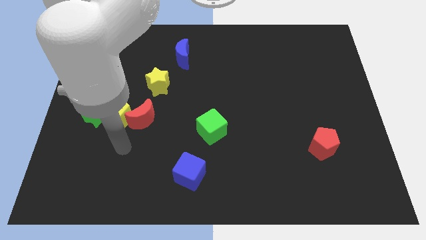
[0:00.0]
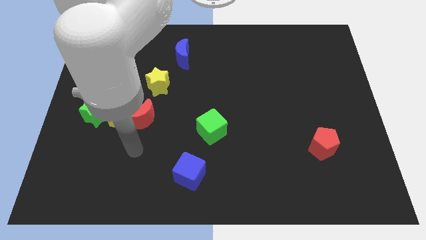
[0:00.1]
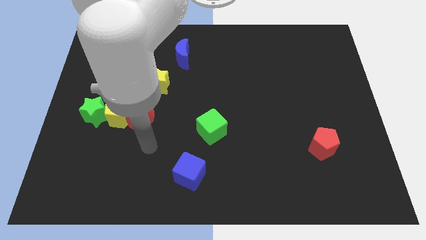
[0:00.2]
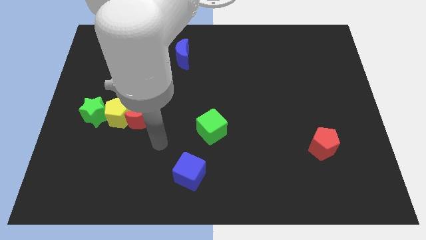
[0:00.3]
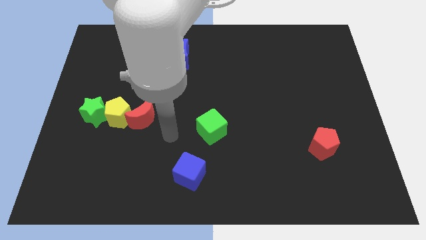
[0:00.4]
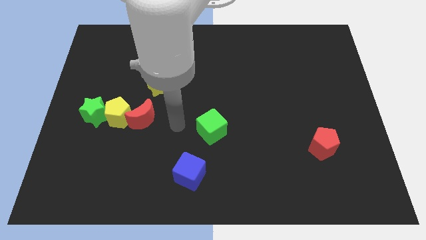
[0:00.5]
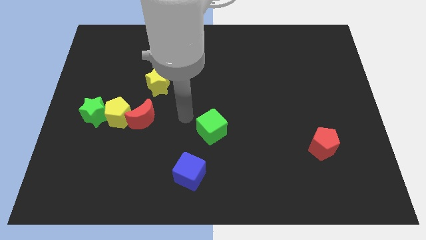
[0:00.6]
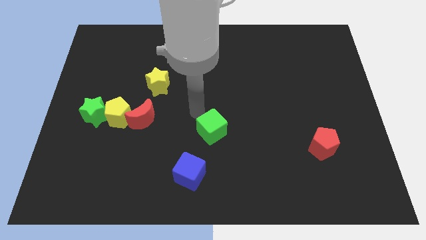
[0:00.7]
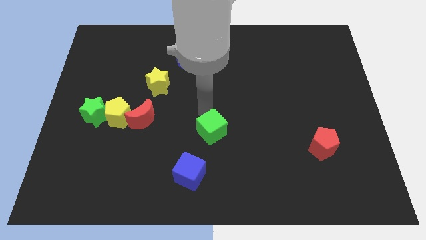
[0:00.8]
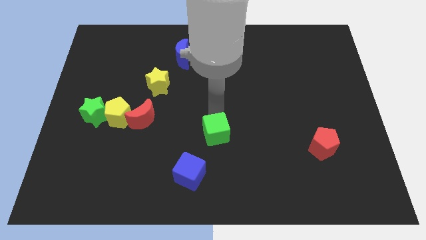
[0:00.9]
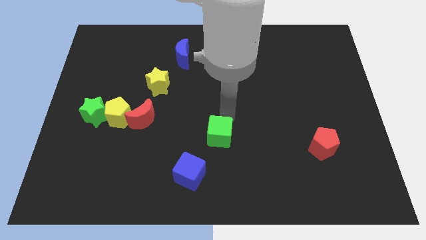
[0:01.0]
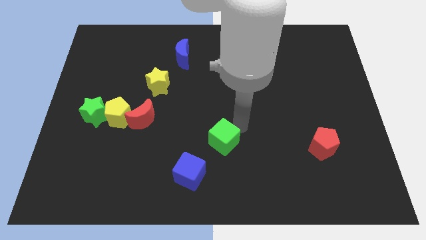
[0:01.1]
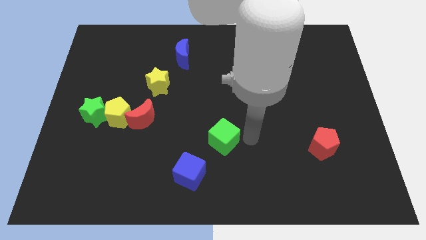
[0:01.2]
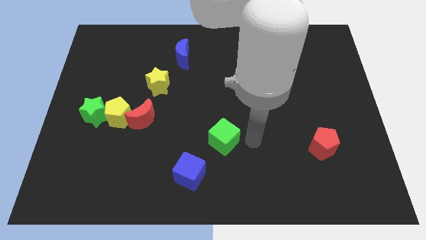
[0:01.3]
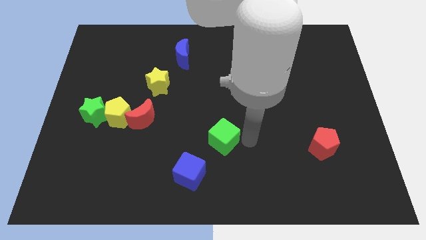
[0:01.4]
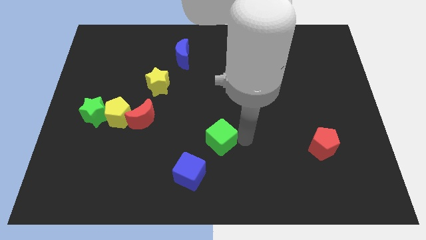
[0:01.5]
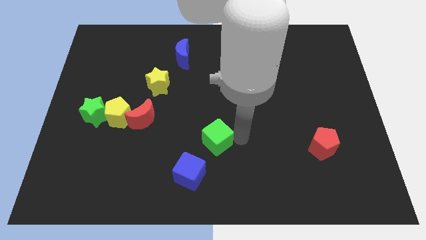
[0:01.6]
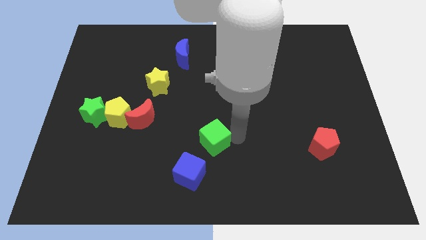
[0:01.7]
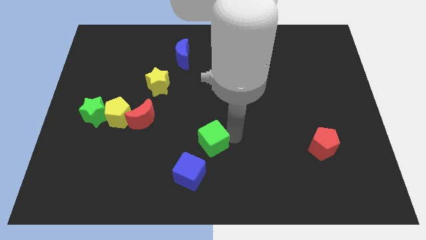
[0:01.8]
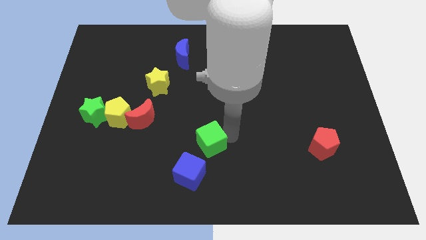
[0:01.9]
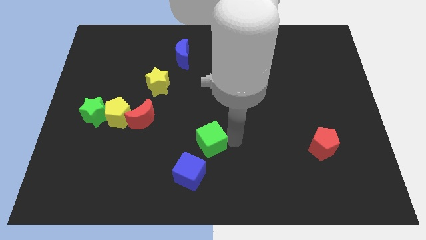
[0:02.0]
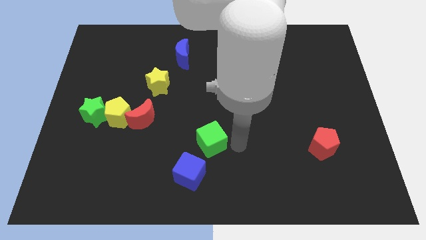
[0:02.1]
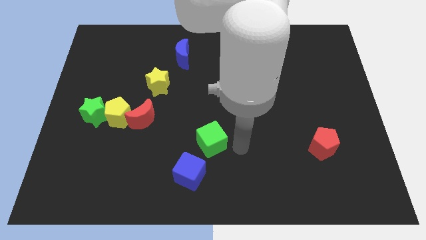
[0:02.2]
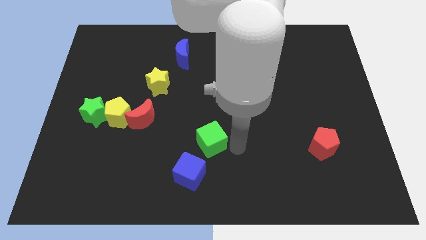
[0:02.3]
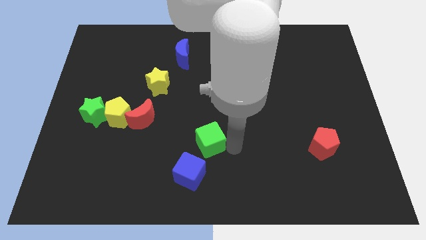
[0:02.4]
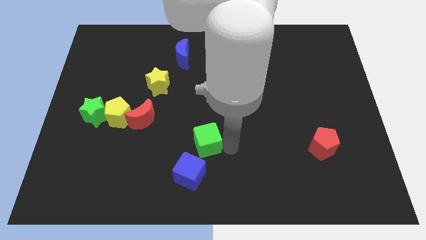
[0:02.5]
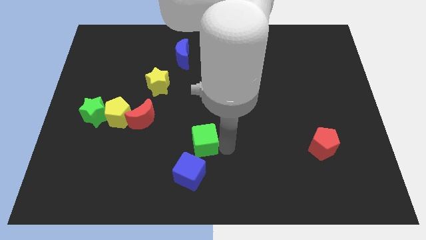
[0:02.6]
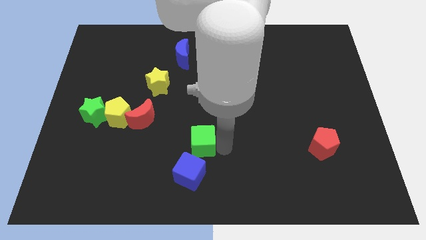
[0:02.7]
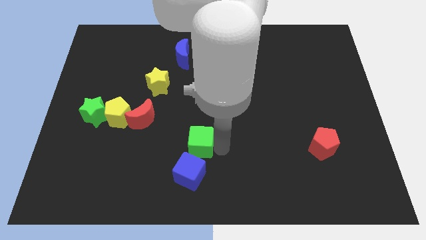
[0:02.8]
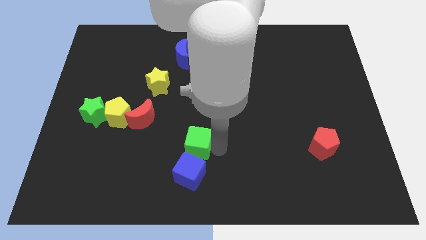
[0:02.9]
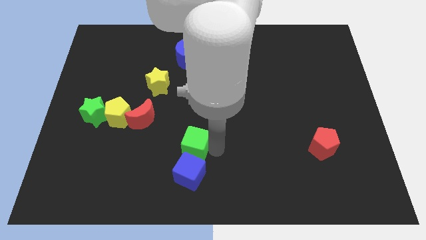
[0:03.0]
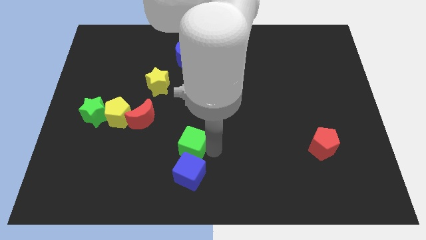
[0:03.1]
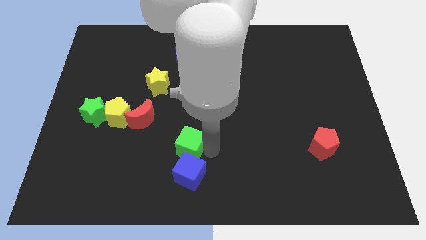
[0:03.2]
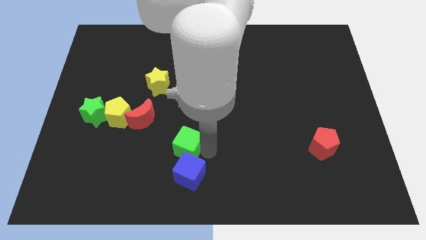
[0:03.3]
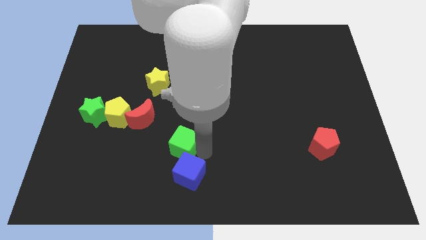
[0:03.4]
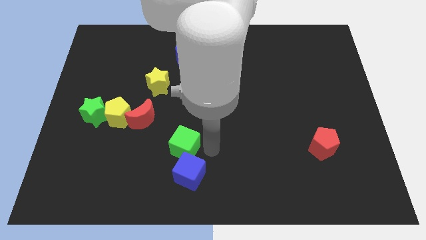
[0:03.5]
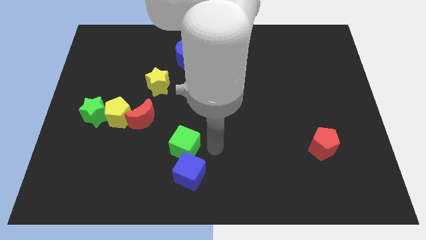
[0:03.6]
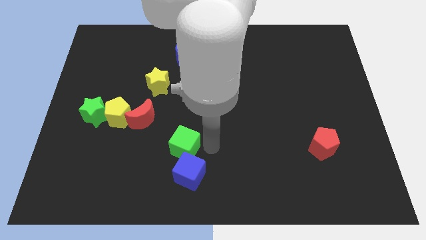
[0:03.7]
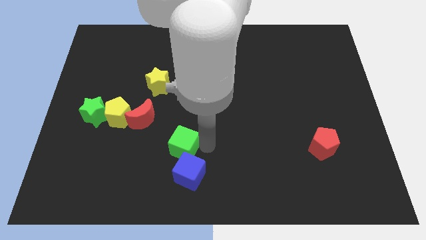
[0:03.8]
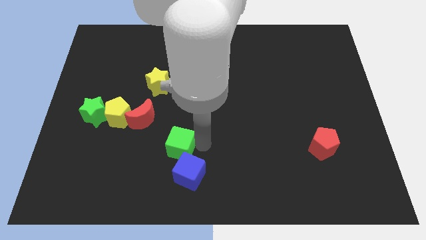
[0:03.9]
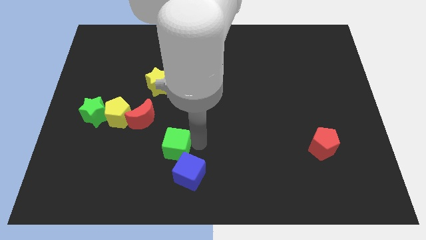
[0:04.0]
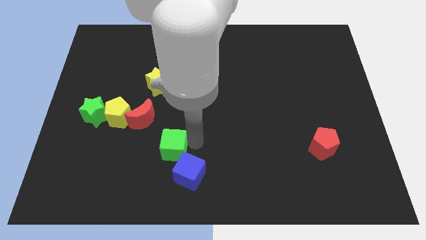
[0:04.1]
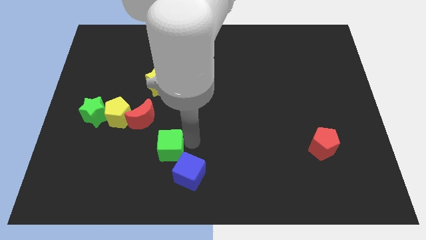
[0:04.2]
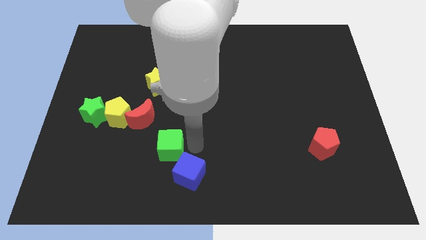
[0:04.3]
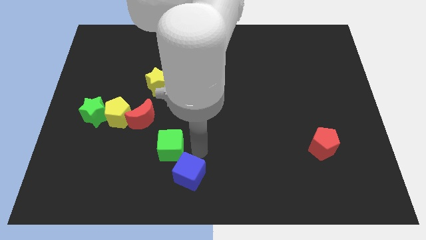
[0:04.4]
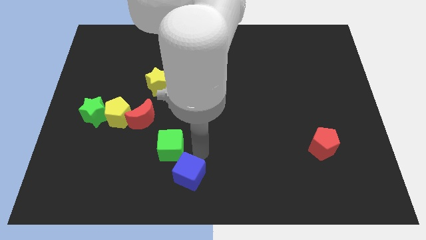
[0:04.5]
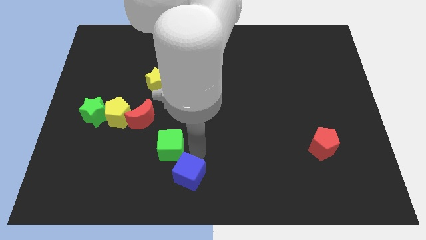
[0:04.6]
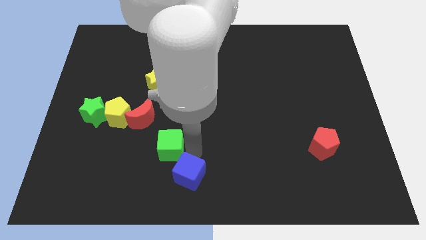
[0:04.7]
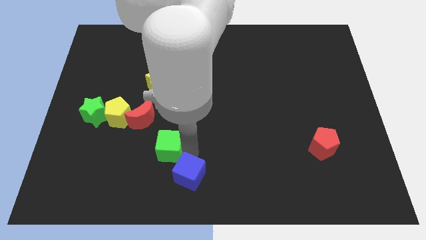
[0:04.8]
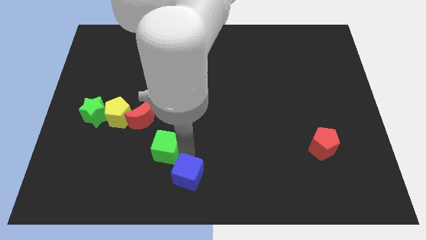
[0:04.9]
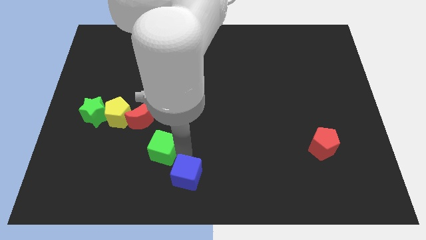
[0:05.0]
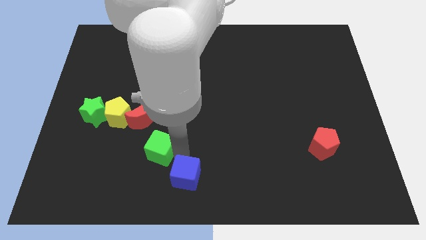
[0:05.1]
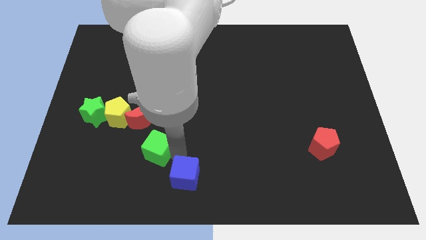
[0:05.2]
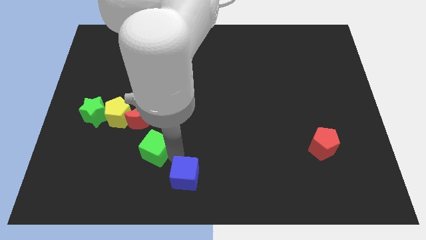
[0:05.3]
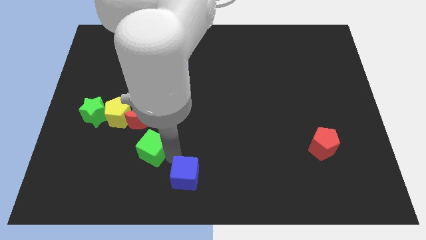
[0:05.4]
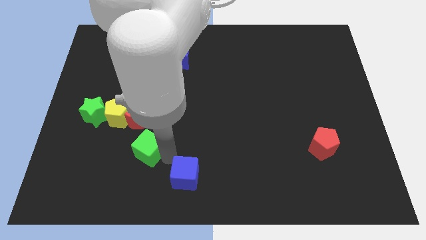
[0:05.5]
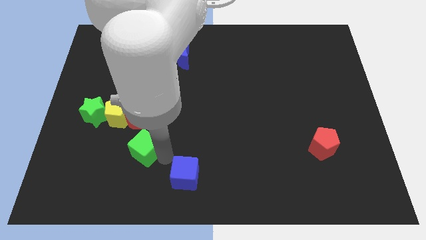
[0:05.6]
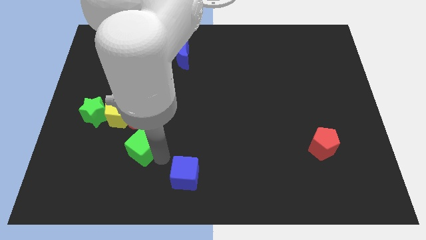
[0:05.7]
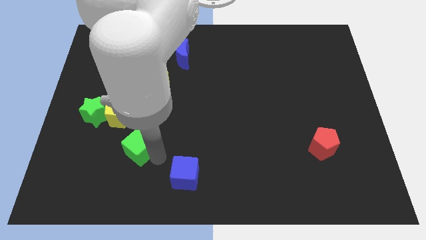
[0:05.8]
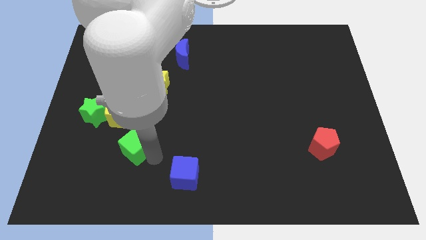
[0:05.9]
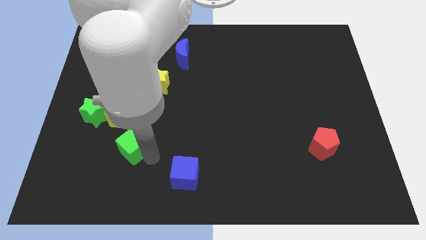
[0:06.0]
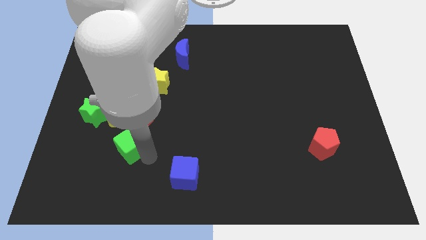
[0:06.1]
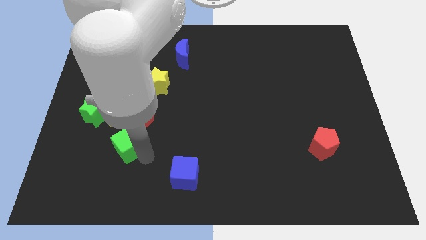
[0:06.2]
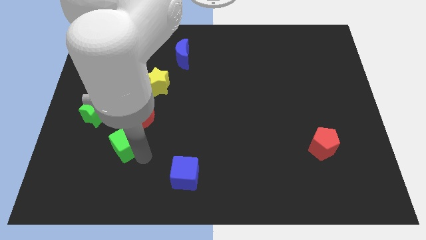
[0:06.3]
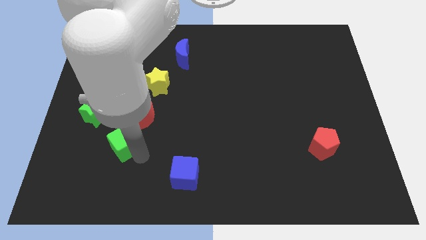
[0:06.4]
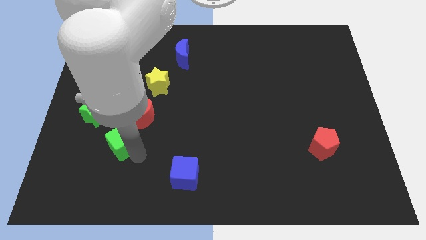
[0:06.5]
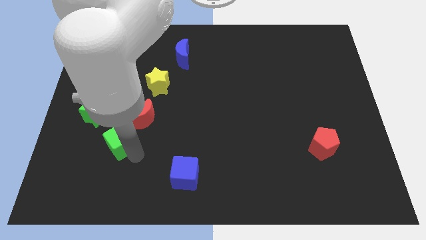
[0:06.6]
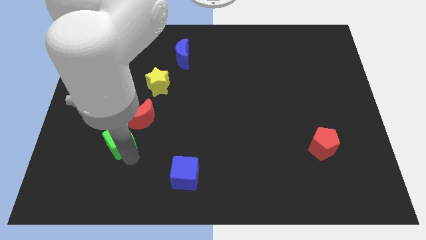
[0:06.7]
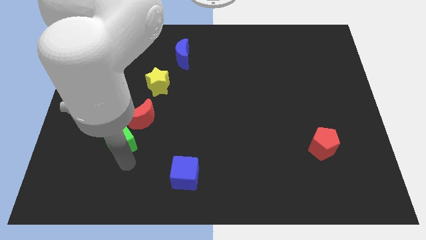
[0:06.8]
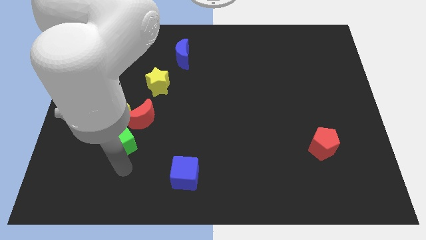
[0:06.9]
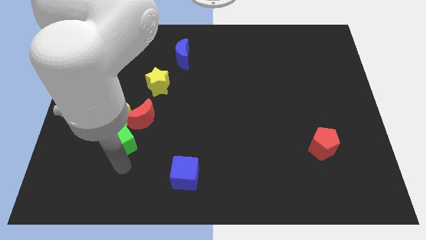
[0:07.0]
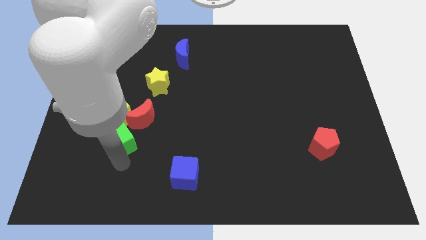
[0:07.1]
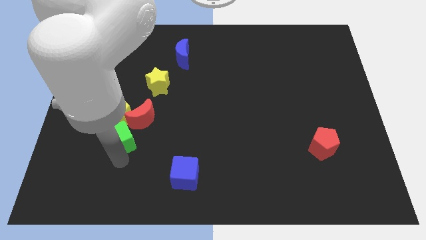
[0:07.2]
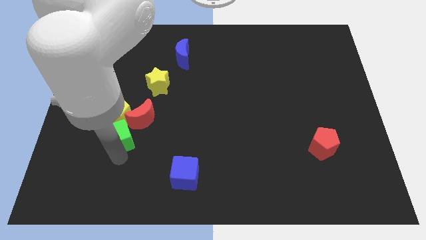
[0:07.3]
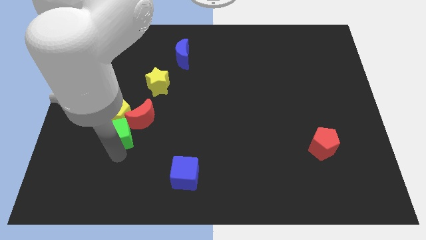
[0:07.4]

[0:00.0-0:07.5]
push the green cube close to the yellow pentagon
